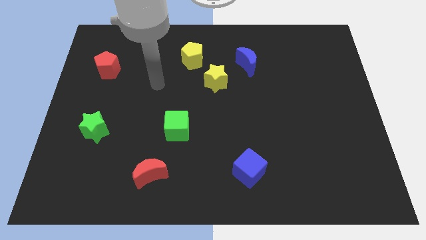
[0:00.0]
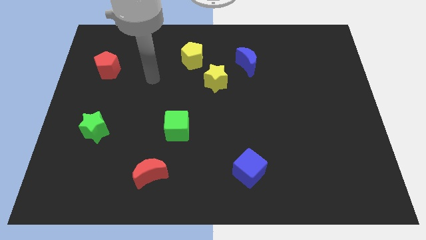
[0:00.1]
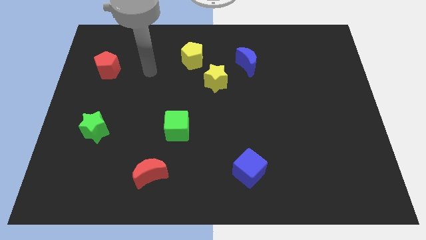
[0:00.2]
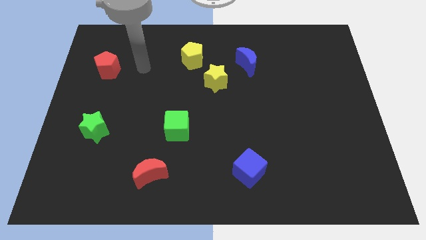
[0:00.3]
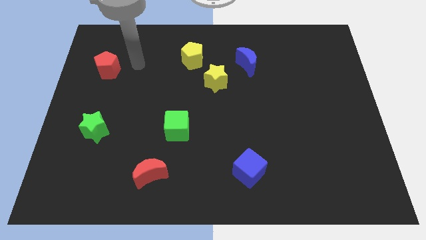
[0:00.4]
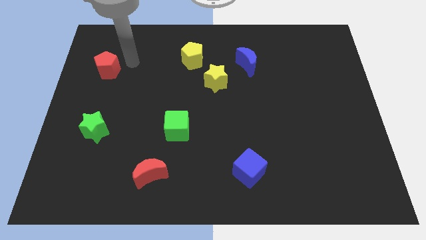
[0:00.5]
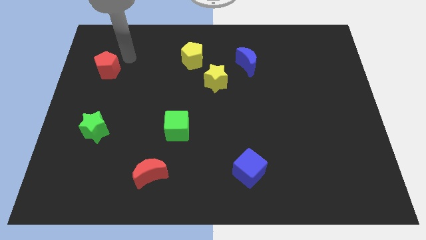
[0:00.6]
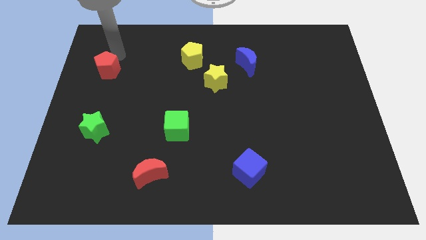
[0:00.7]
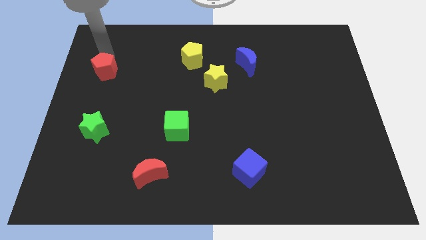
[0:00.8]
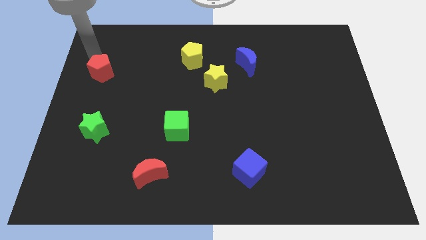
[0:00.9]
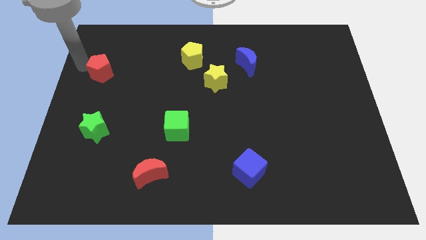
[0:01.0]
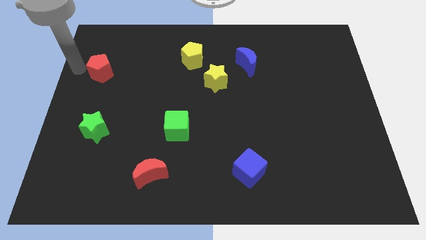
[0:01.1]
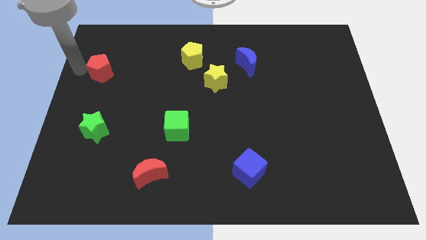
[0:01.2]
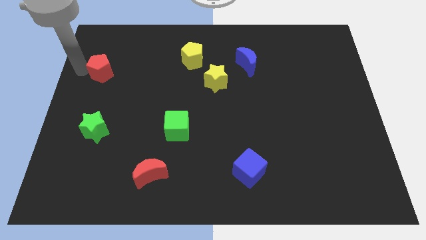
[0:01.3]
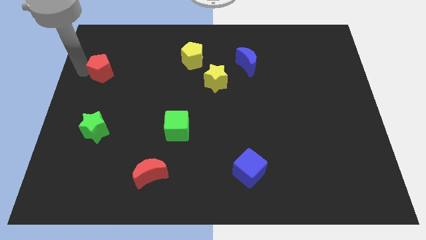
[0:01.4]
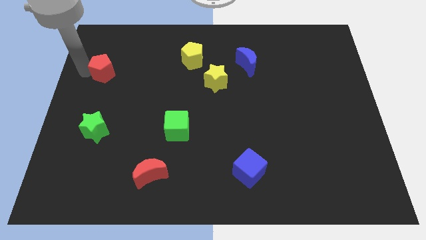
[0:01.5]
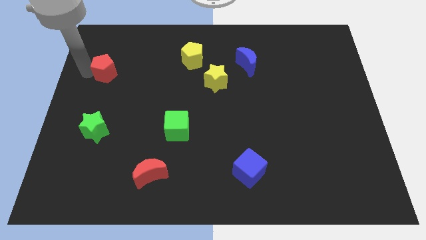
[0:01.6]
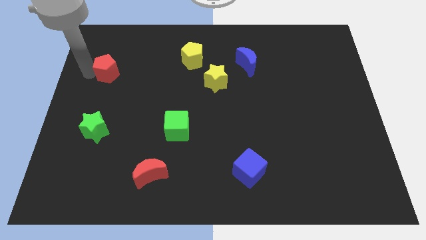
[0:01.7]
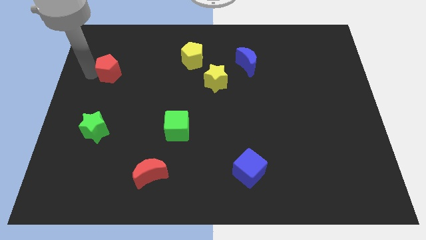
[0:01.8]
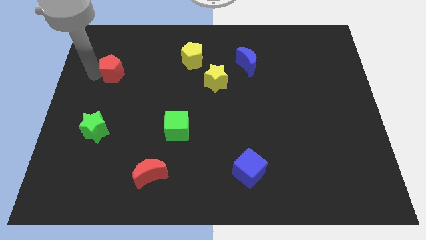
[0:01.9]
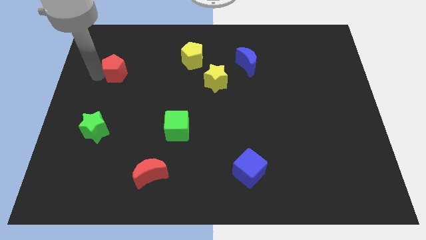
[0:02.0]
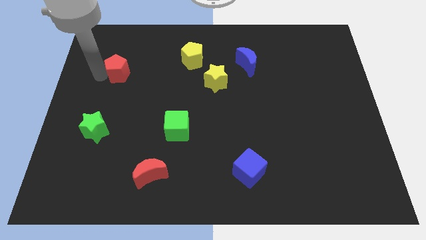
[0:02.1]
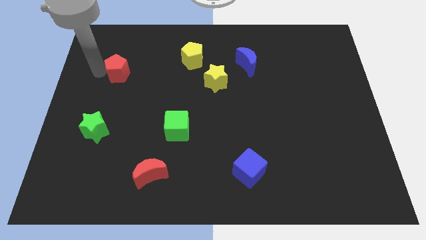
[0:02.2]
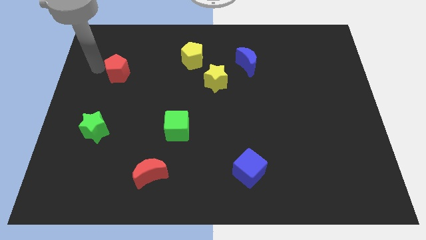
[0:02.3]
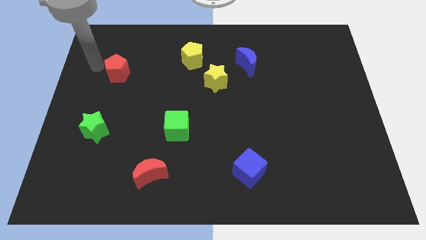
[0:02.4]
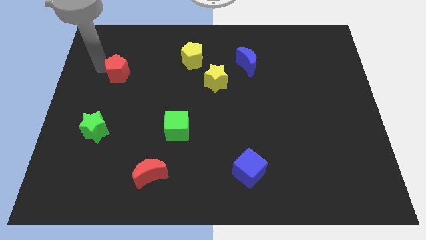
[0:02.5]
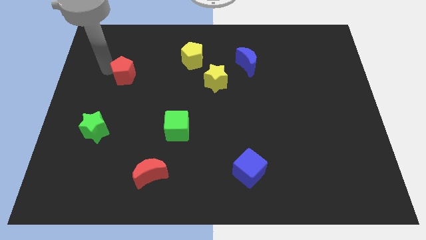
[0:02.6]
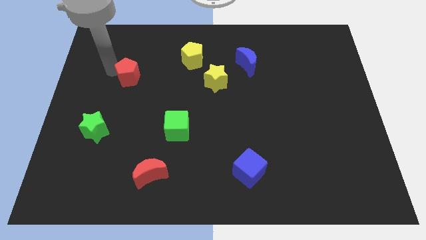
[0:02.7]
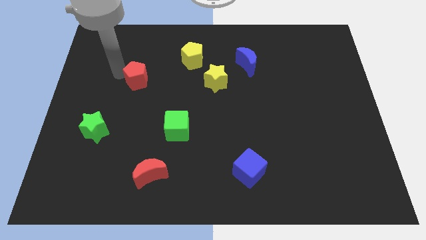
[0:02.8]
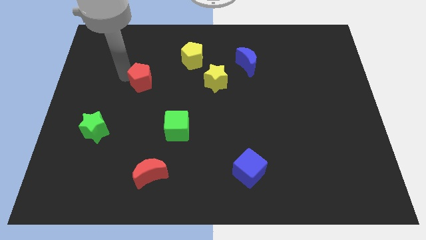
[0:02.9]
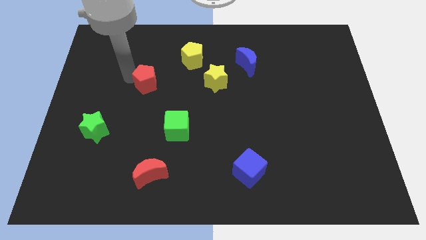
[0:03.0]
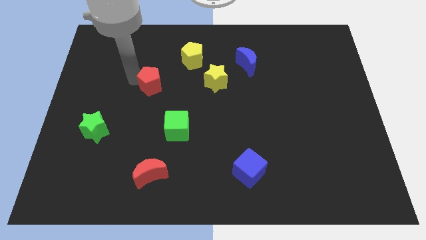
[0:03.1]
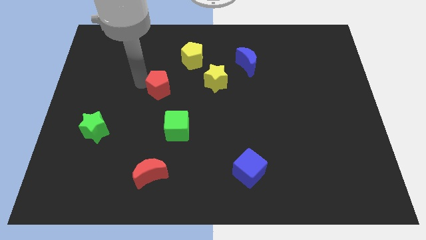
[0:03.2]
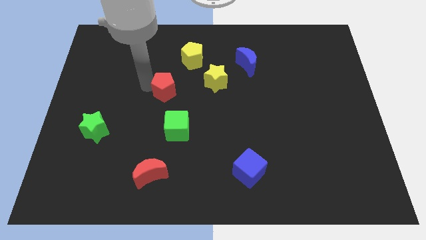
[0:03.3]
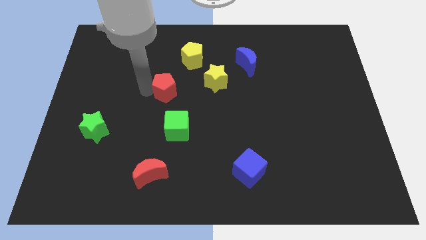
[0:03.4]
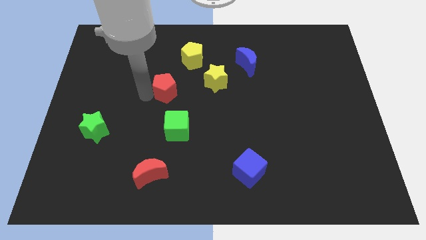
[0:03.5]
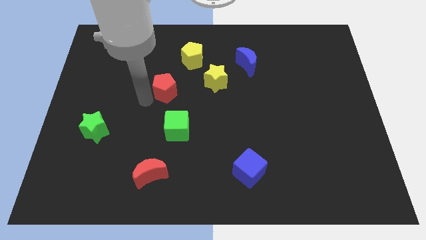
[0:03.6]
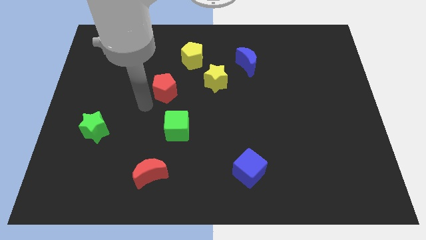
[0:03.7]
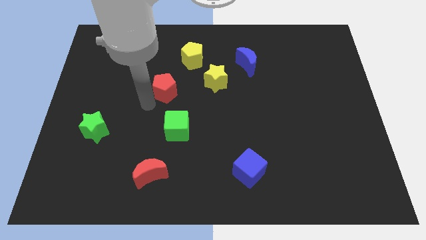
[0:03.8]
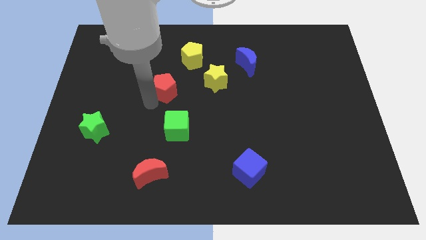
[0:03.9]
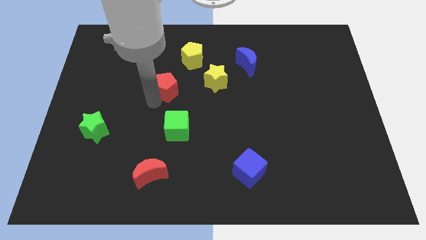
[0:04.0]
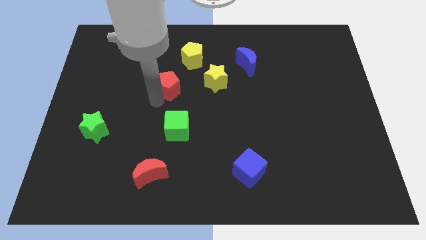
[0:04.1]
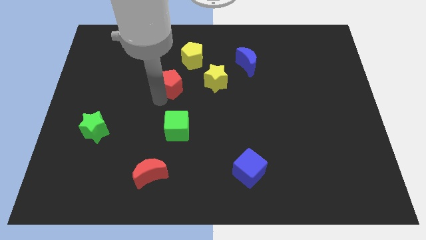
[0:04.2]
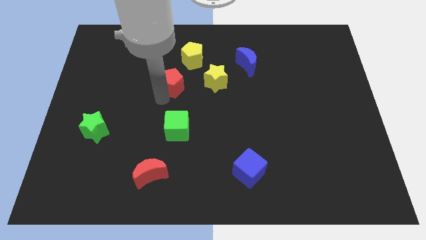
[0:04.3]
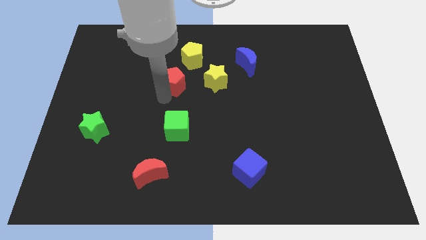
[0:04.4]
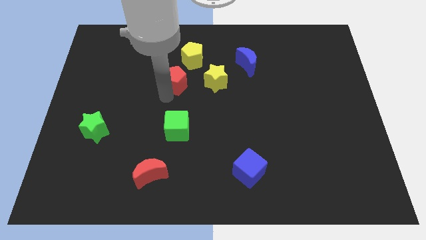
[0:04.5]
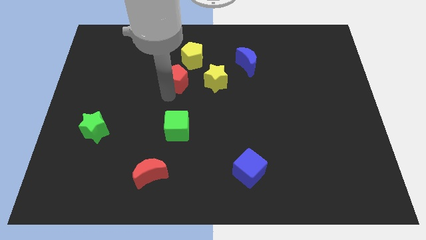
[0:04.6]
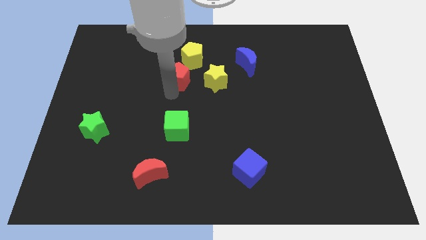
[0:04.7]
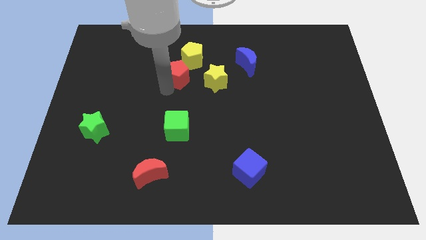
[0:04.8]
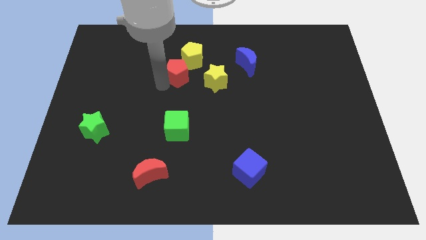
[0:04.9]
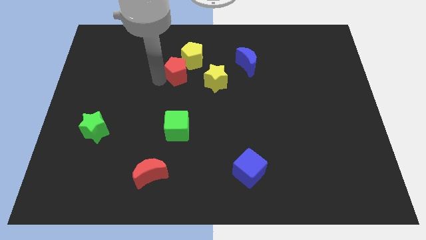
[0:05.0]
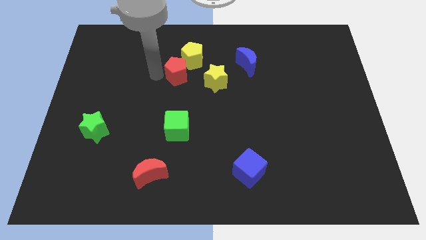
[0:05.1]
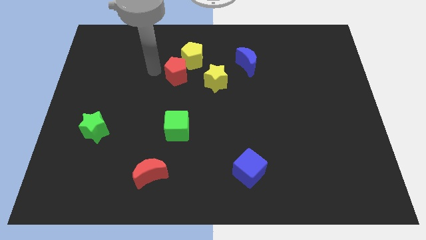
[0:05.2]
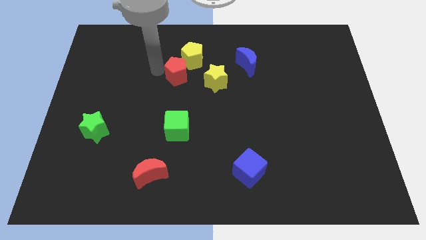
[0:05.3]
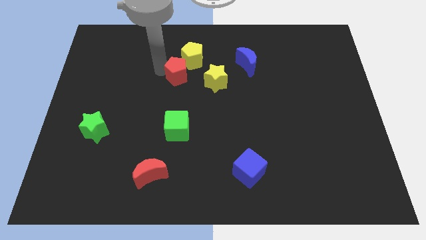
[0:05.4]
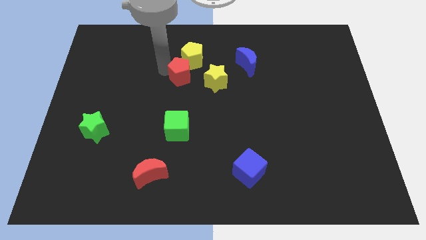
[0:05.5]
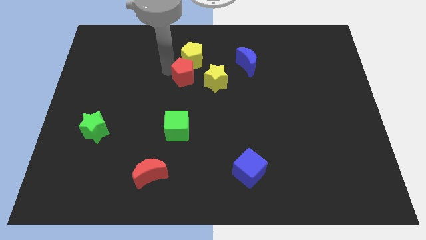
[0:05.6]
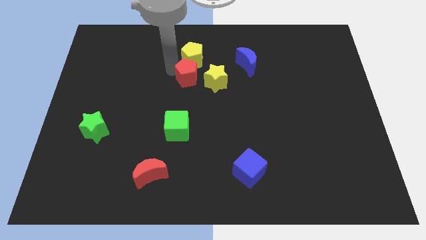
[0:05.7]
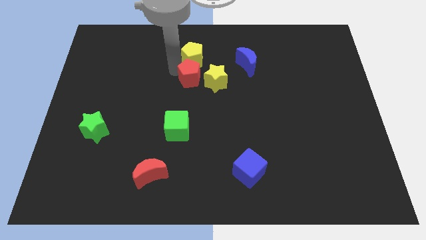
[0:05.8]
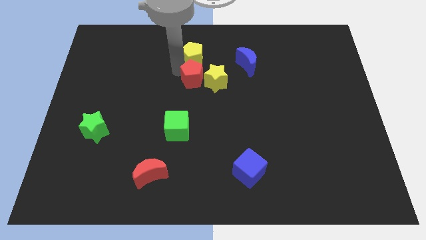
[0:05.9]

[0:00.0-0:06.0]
slide the red pentagon next to the yellow star

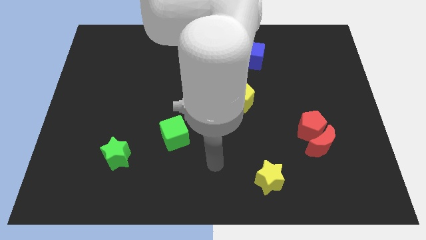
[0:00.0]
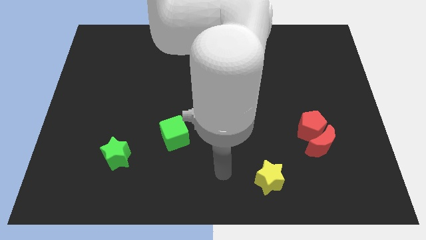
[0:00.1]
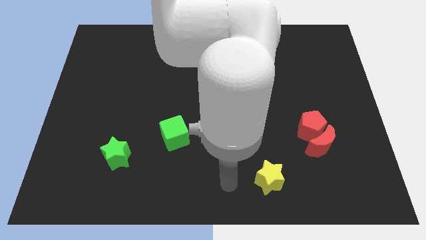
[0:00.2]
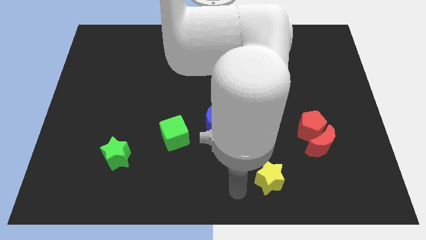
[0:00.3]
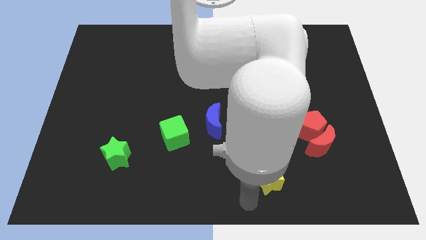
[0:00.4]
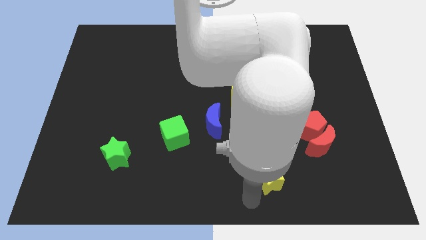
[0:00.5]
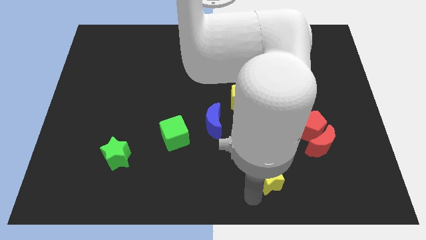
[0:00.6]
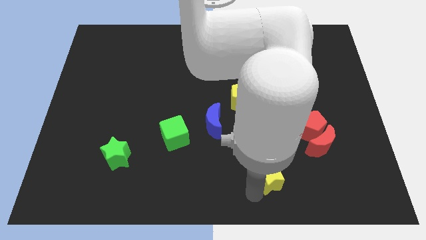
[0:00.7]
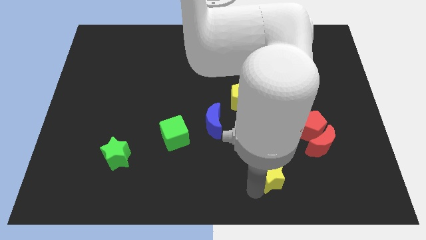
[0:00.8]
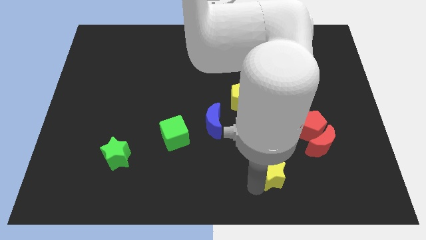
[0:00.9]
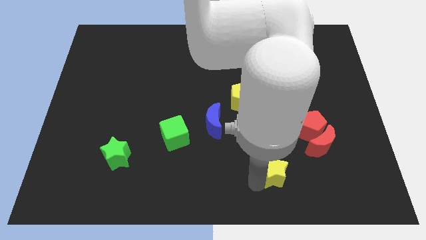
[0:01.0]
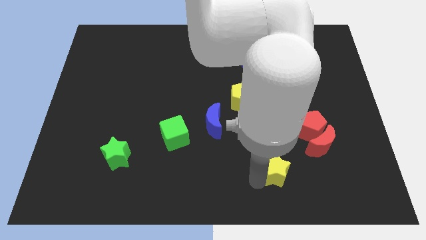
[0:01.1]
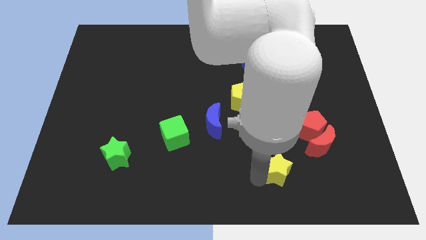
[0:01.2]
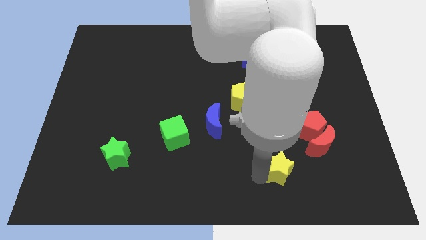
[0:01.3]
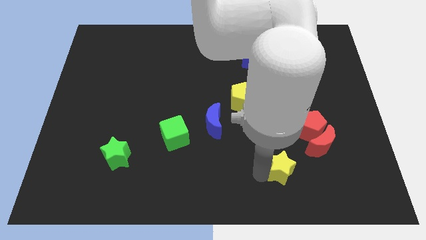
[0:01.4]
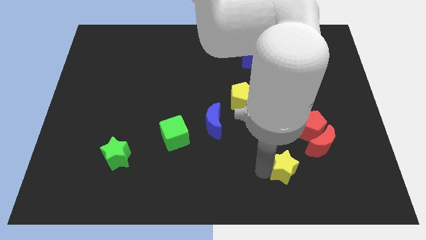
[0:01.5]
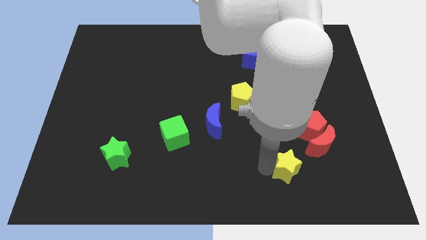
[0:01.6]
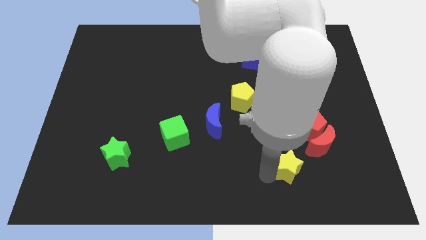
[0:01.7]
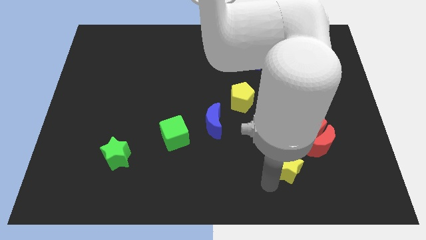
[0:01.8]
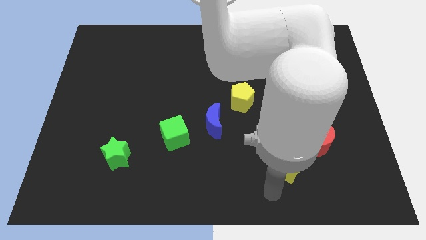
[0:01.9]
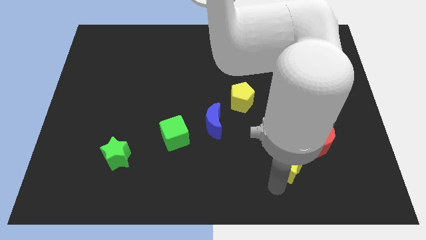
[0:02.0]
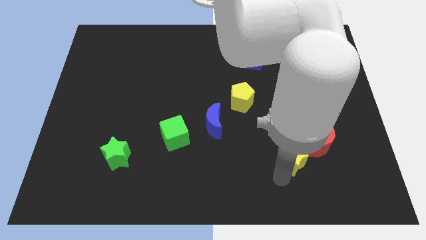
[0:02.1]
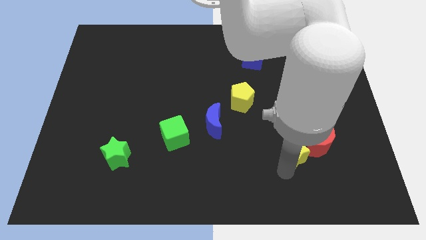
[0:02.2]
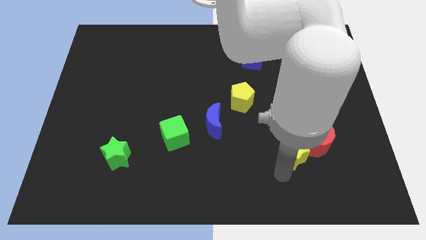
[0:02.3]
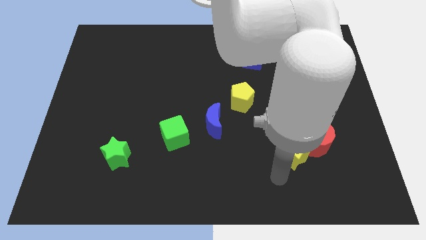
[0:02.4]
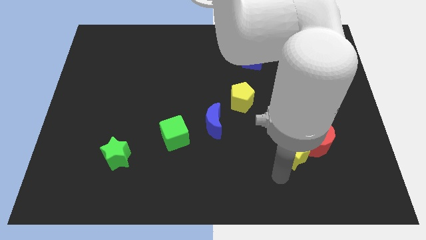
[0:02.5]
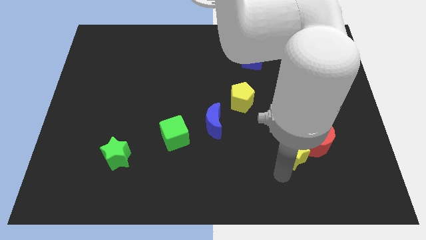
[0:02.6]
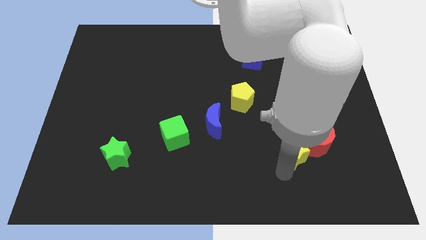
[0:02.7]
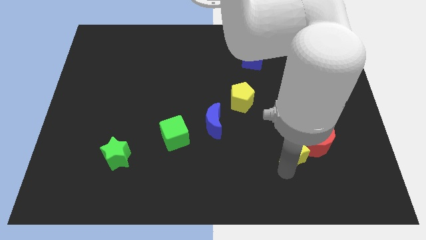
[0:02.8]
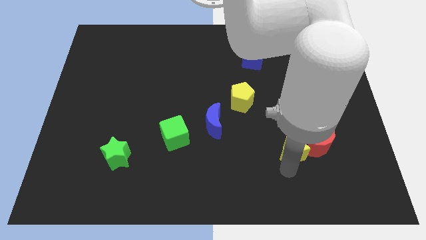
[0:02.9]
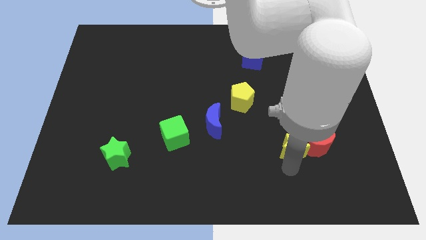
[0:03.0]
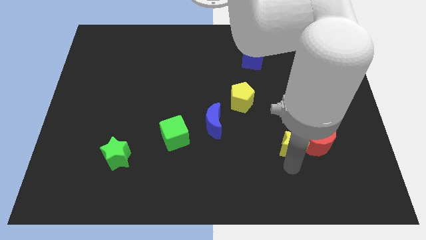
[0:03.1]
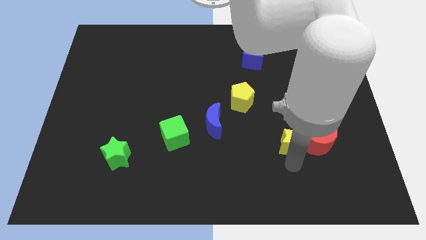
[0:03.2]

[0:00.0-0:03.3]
slide the yellow star next to the red pentagon
